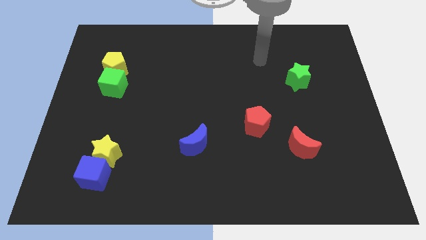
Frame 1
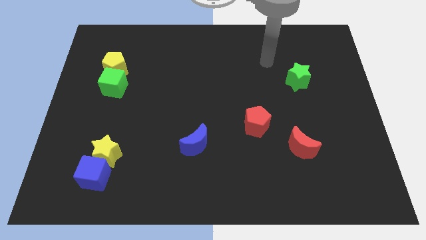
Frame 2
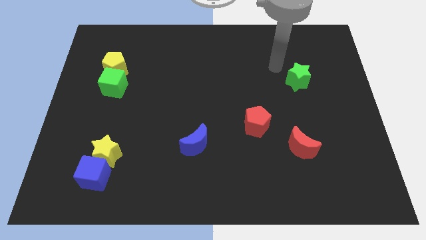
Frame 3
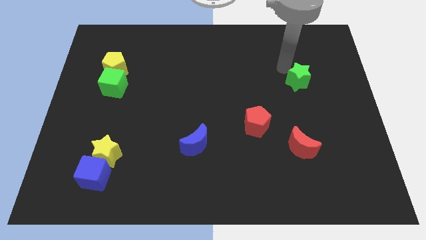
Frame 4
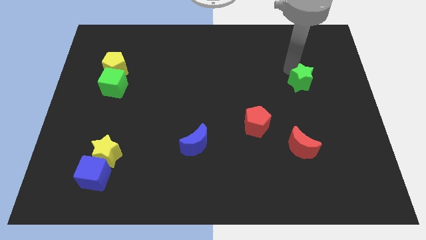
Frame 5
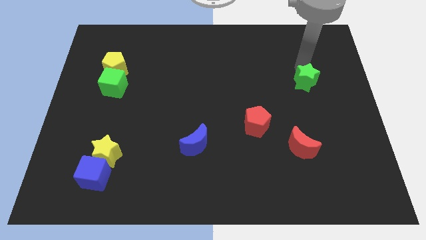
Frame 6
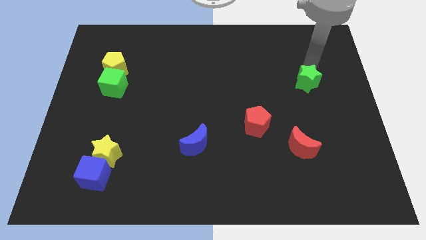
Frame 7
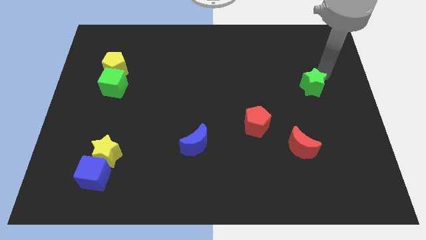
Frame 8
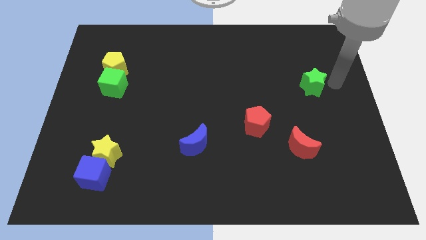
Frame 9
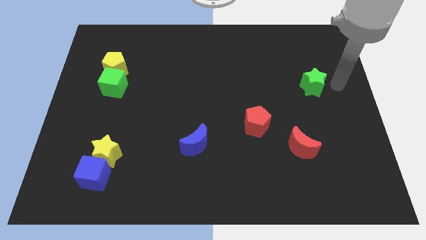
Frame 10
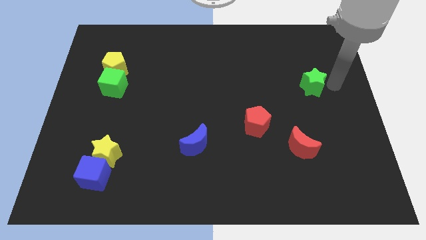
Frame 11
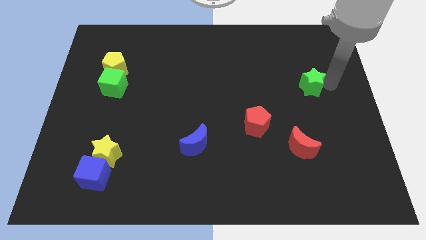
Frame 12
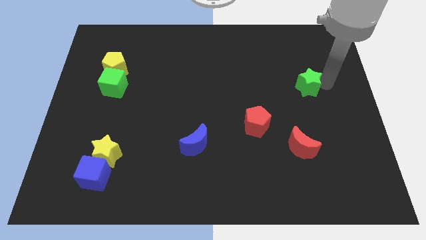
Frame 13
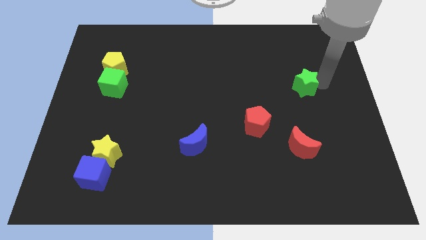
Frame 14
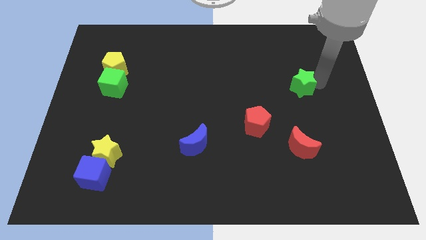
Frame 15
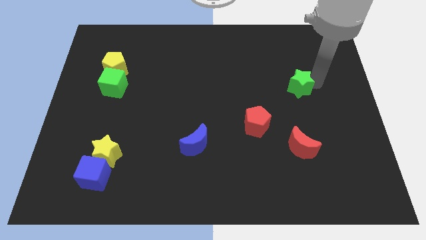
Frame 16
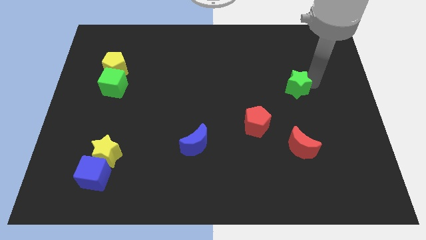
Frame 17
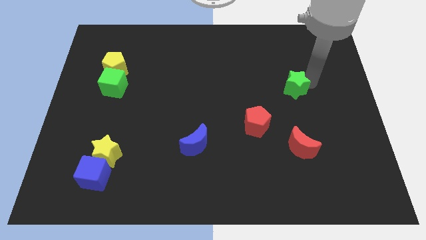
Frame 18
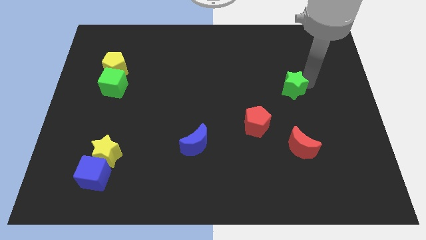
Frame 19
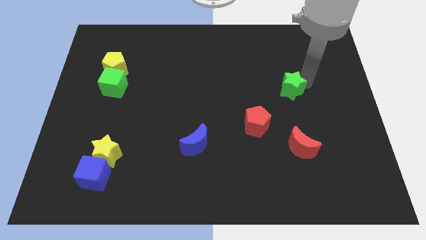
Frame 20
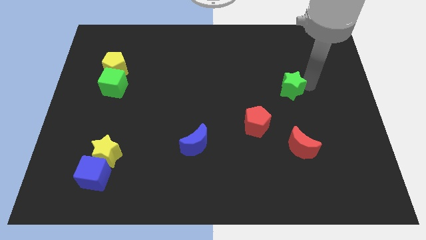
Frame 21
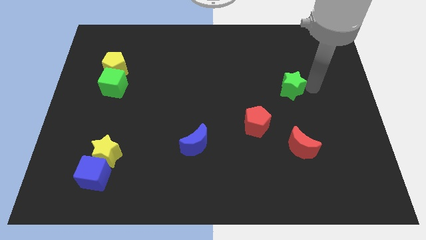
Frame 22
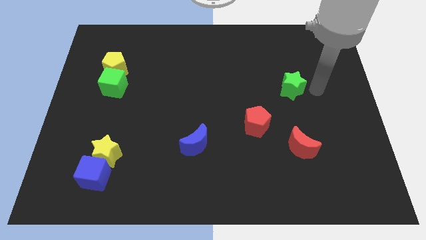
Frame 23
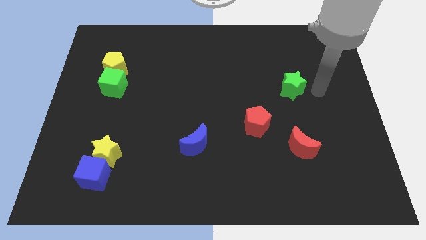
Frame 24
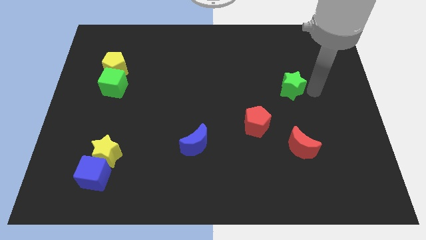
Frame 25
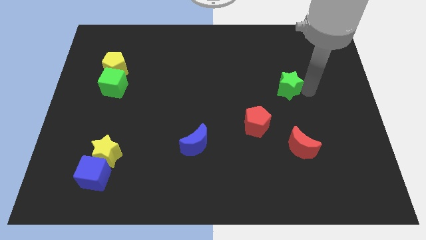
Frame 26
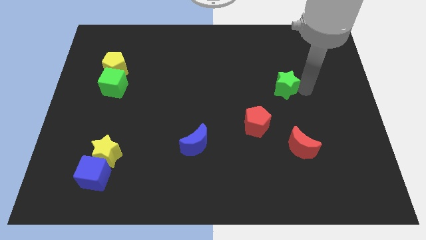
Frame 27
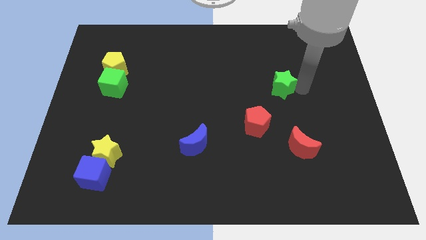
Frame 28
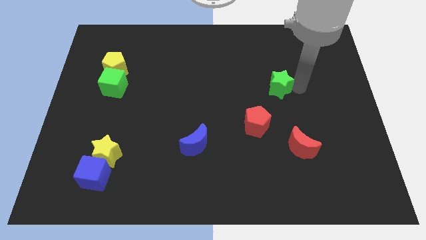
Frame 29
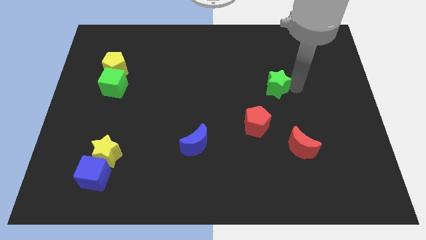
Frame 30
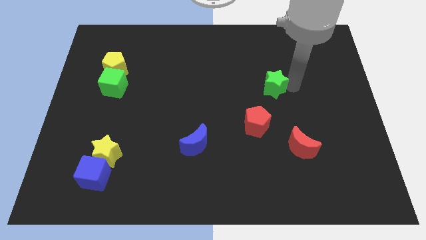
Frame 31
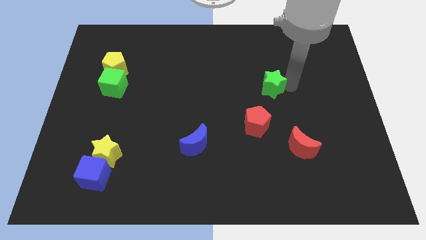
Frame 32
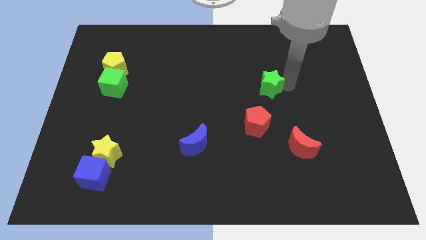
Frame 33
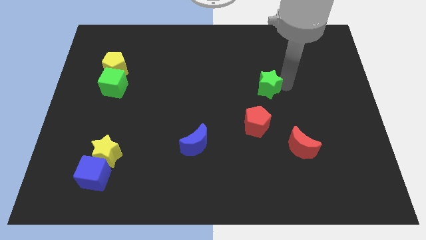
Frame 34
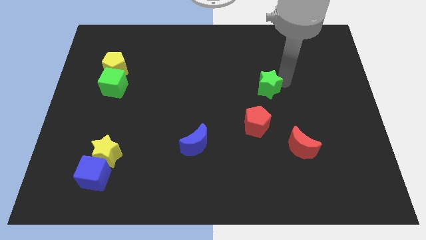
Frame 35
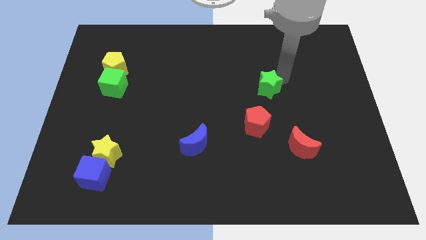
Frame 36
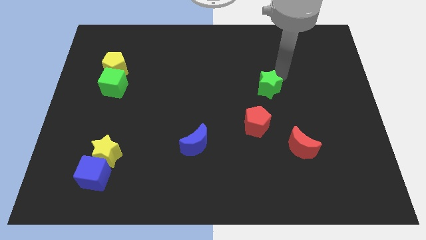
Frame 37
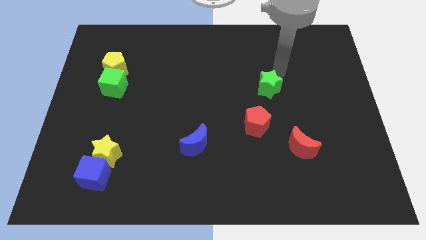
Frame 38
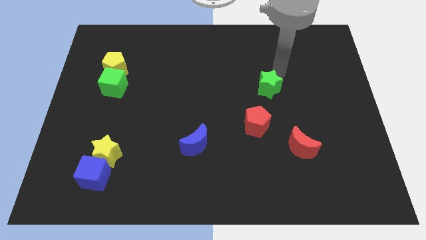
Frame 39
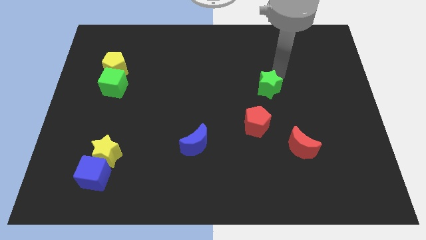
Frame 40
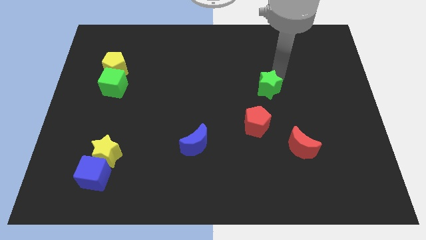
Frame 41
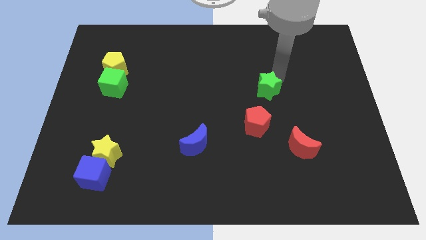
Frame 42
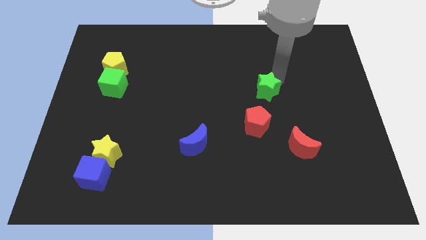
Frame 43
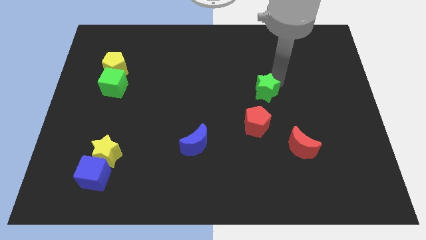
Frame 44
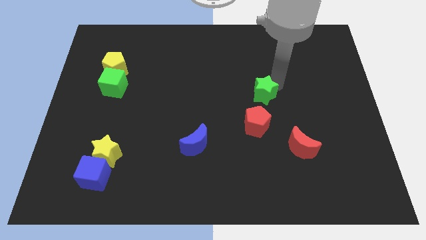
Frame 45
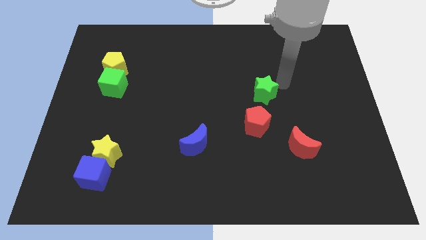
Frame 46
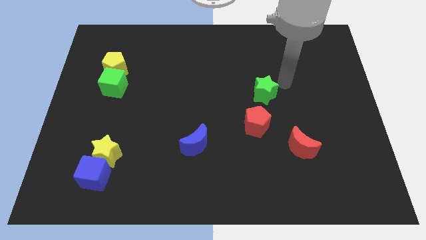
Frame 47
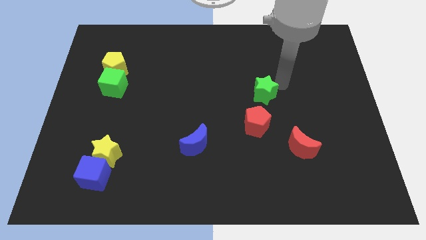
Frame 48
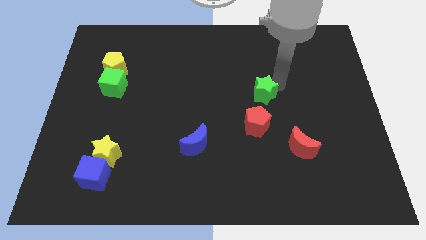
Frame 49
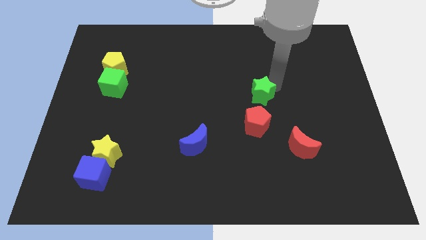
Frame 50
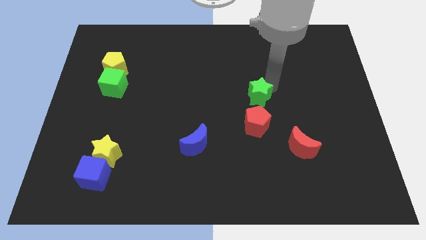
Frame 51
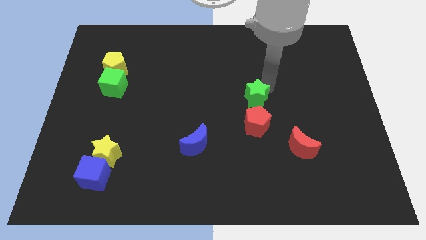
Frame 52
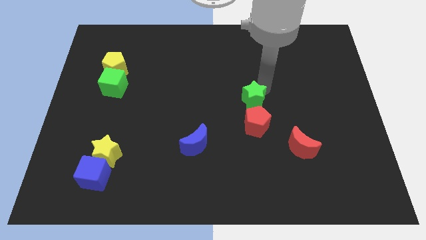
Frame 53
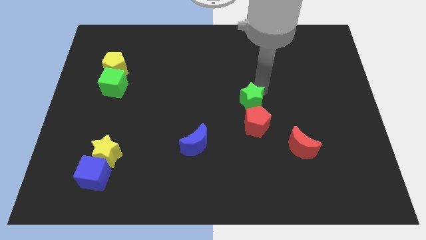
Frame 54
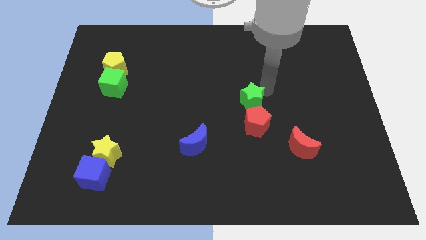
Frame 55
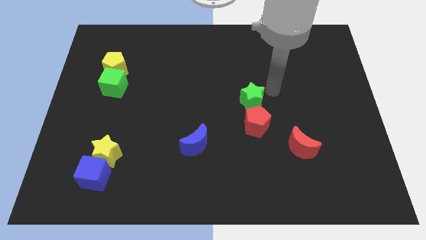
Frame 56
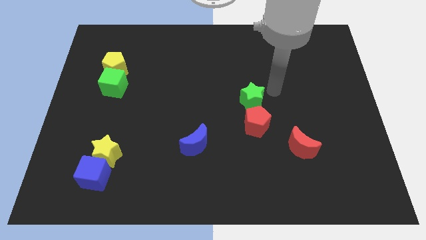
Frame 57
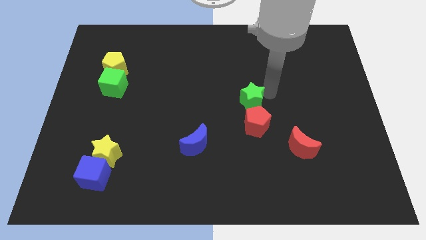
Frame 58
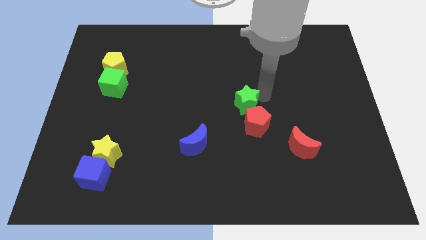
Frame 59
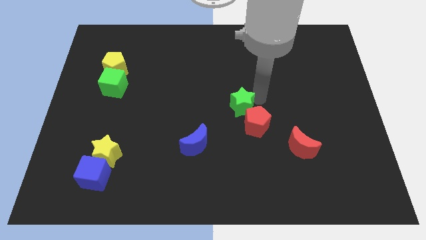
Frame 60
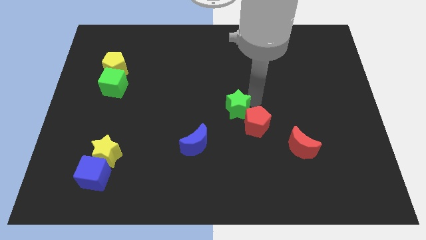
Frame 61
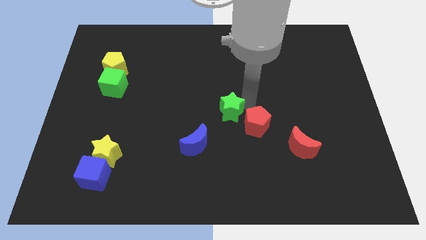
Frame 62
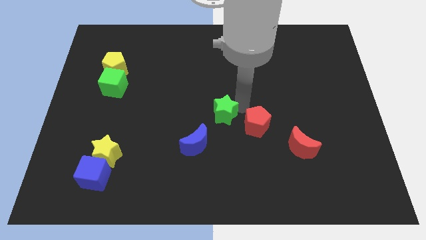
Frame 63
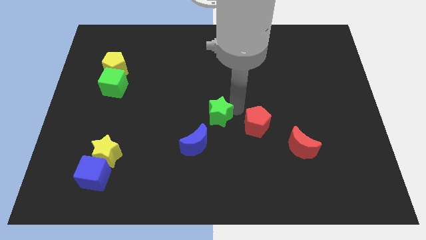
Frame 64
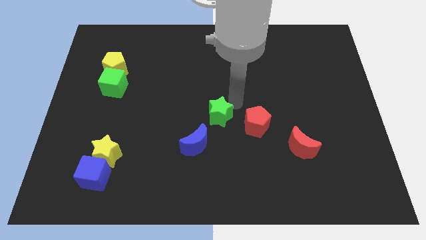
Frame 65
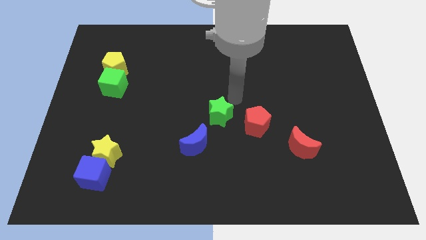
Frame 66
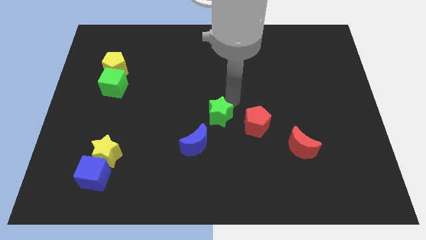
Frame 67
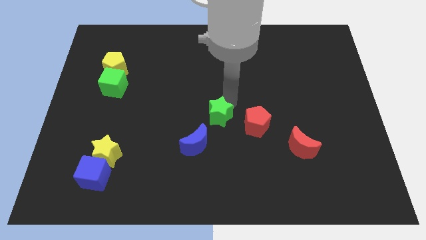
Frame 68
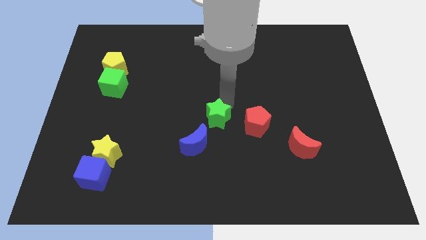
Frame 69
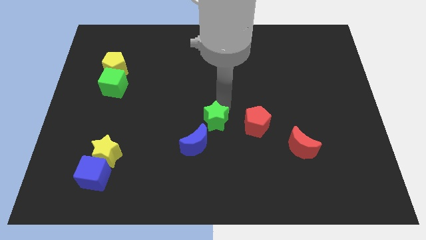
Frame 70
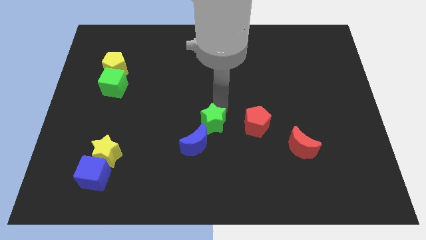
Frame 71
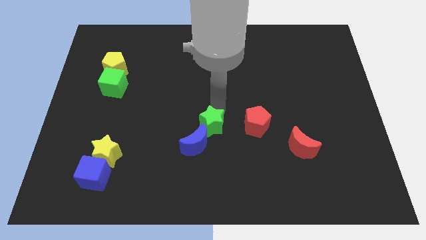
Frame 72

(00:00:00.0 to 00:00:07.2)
push the green star towards the blue moon
